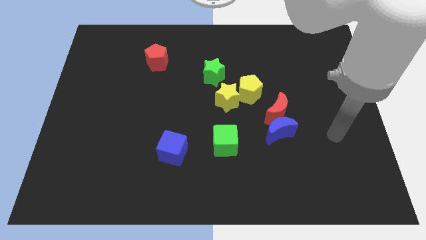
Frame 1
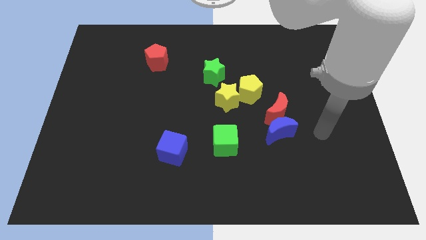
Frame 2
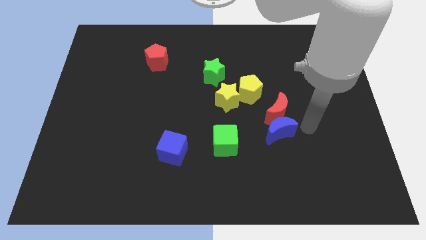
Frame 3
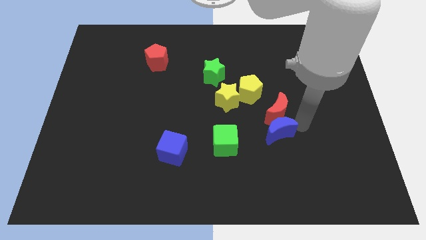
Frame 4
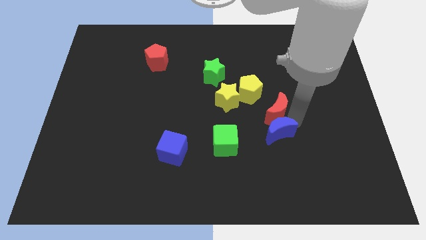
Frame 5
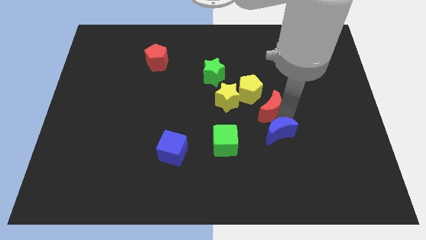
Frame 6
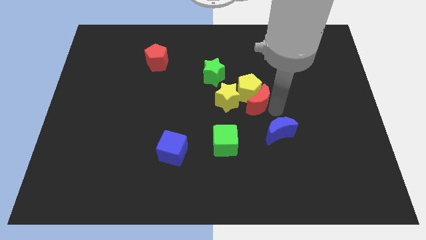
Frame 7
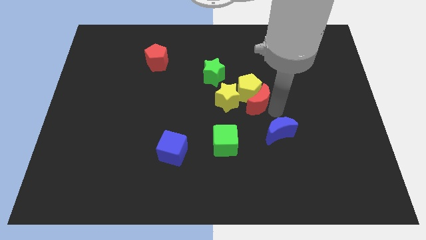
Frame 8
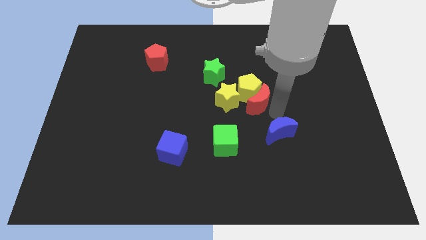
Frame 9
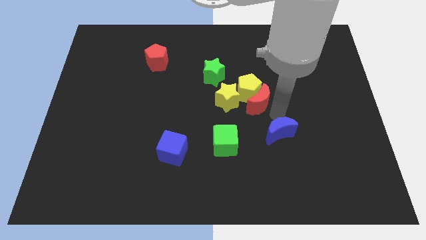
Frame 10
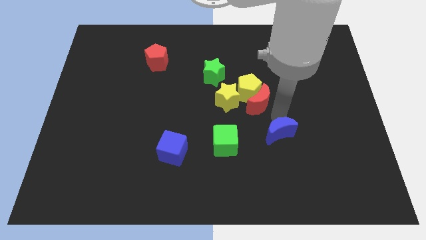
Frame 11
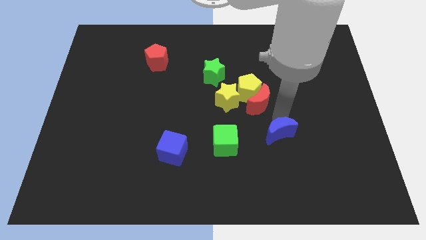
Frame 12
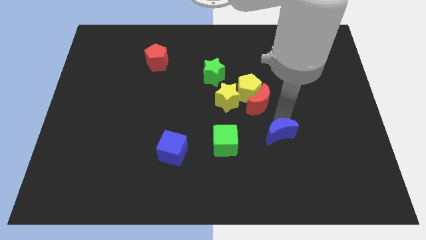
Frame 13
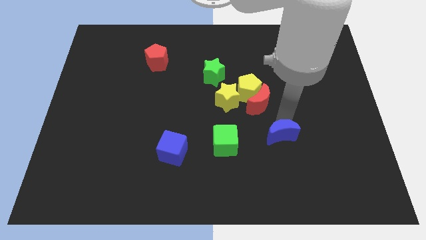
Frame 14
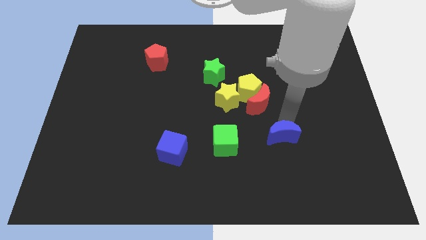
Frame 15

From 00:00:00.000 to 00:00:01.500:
pull the blue moon apart from the red moon

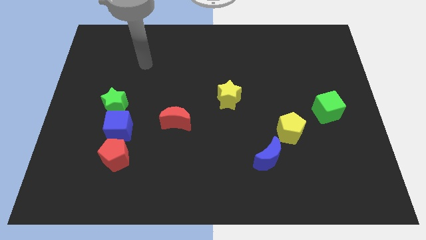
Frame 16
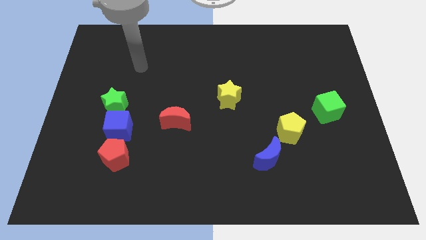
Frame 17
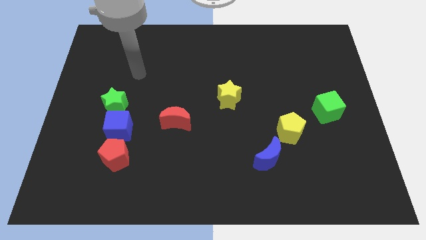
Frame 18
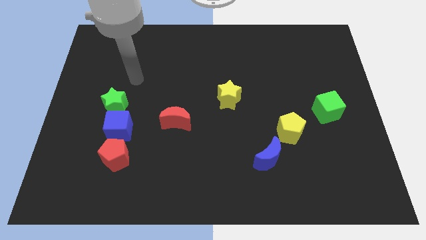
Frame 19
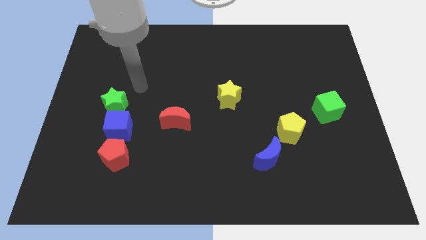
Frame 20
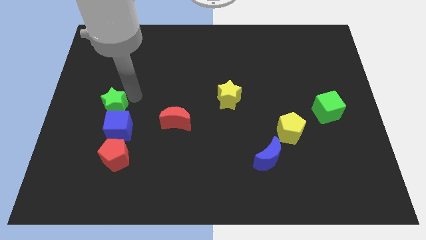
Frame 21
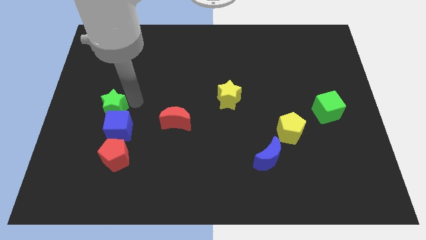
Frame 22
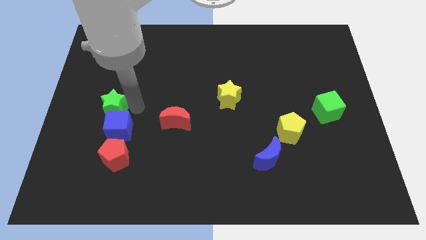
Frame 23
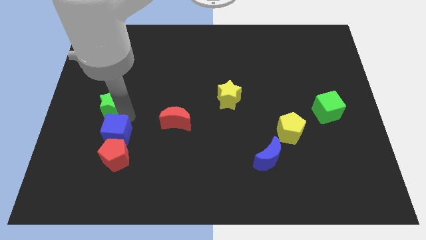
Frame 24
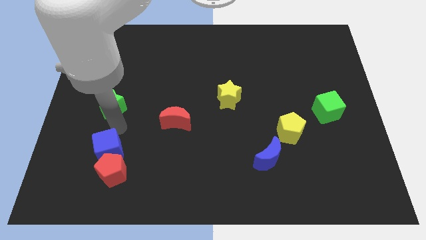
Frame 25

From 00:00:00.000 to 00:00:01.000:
separate the green star from the blue cube

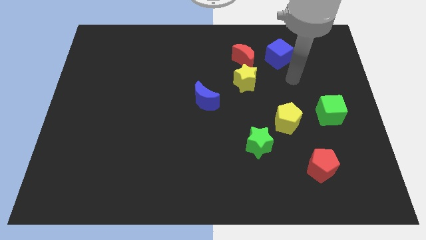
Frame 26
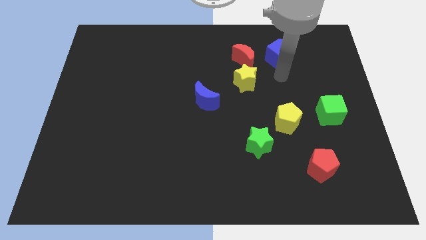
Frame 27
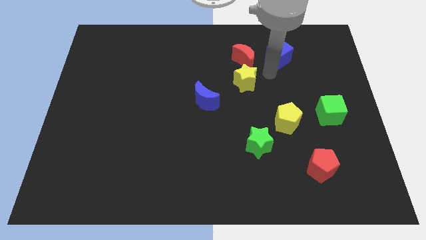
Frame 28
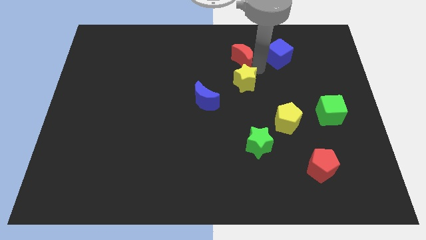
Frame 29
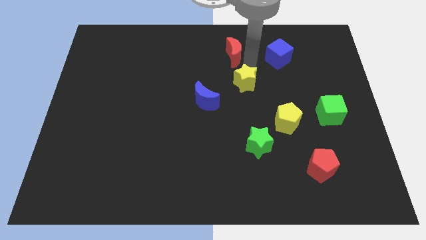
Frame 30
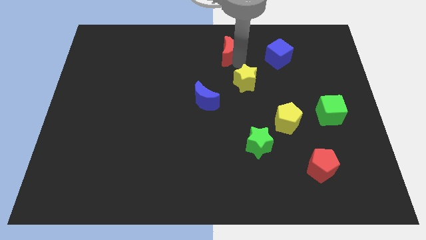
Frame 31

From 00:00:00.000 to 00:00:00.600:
move the yellow star away from the red moon

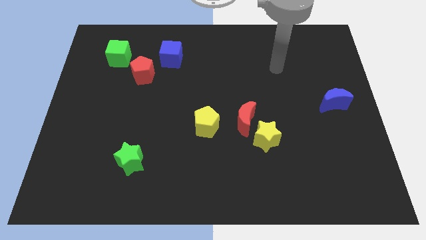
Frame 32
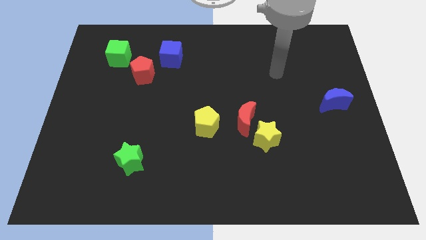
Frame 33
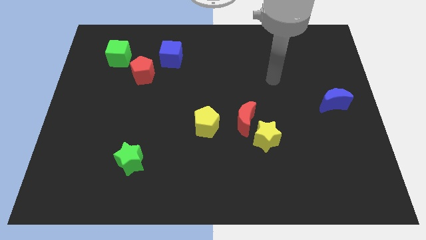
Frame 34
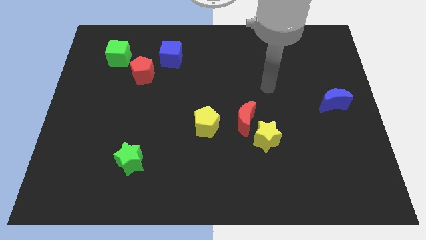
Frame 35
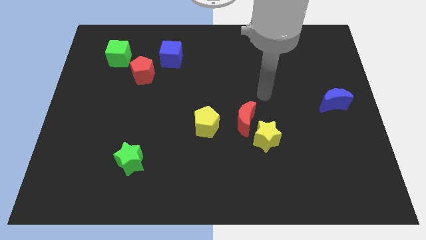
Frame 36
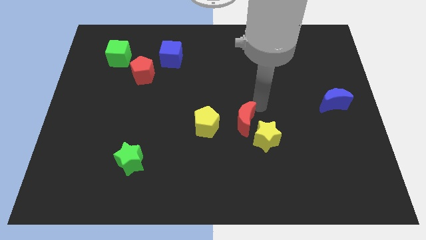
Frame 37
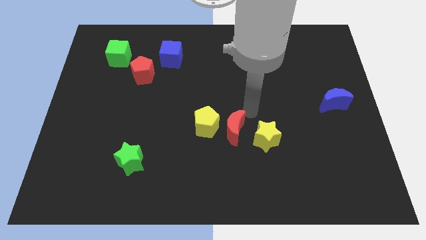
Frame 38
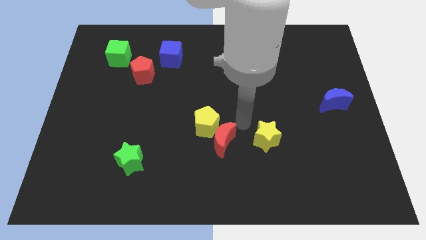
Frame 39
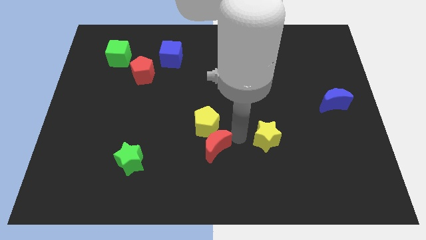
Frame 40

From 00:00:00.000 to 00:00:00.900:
separate the yellow star from the red moon

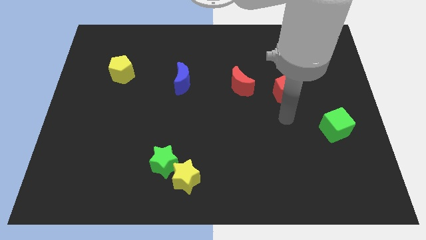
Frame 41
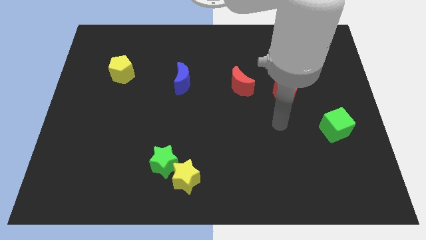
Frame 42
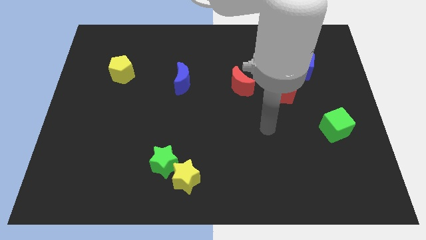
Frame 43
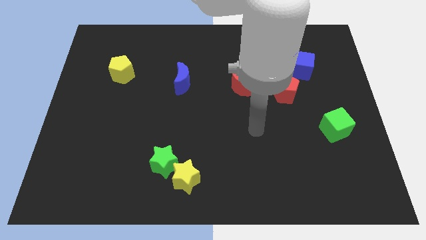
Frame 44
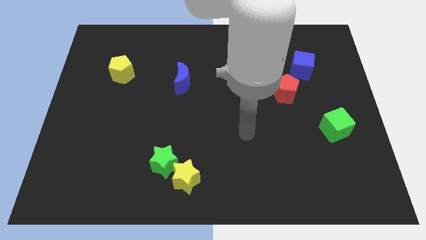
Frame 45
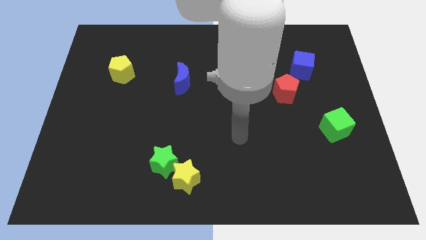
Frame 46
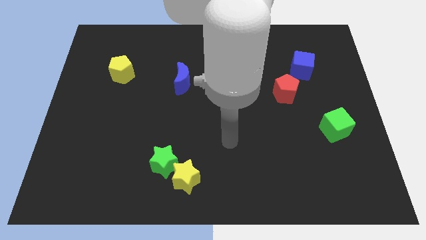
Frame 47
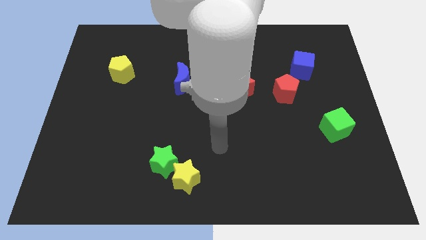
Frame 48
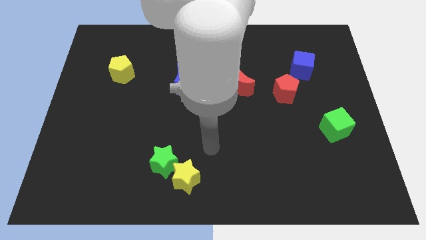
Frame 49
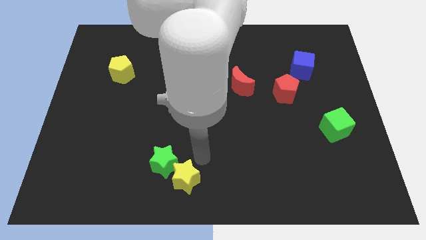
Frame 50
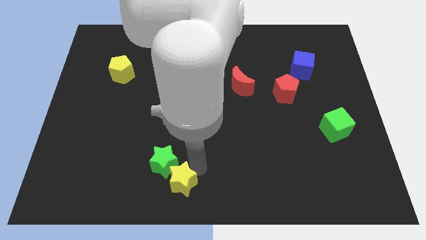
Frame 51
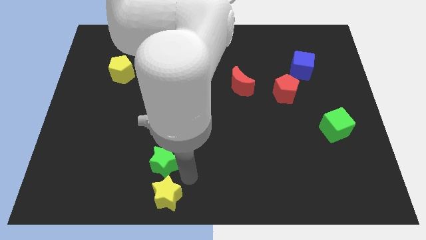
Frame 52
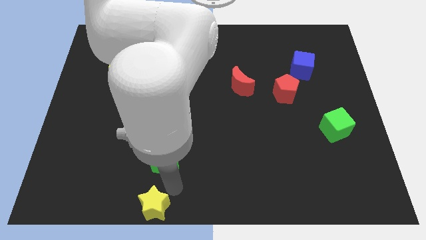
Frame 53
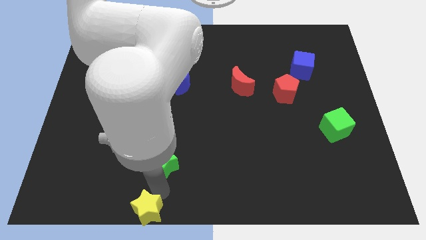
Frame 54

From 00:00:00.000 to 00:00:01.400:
pull the green star apart from the yellow star

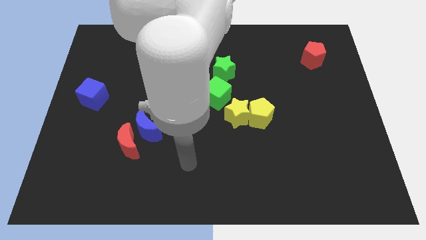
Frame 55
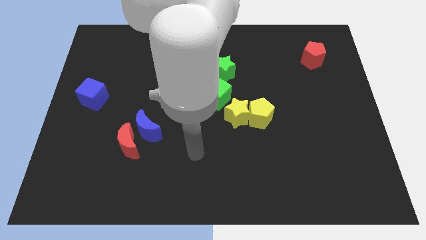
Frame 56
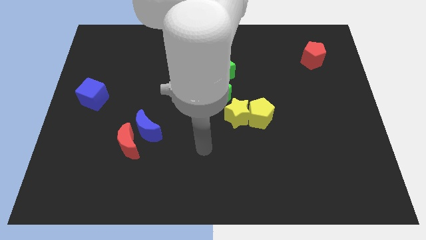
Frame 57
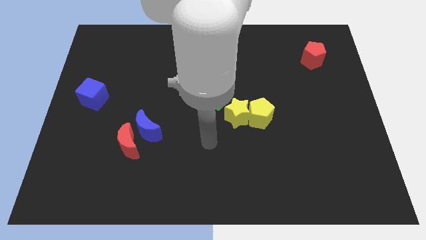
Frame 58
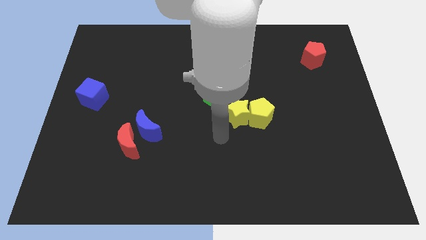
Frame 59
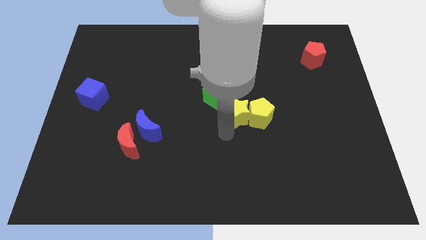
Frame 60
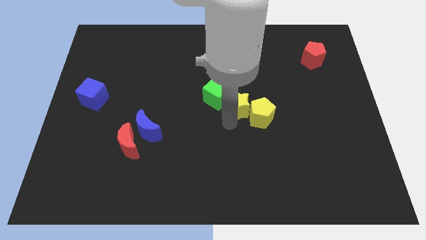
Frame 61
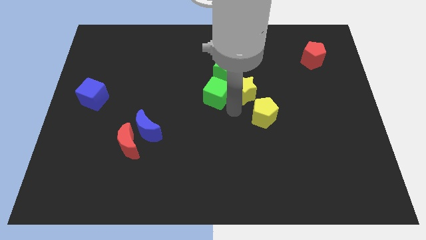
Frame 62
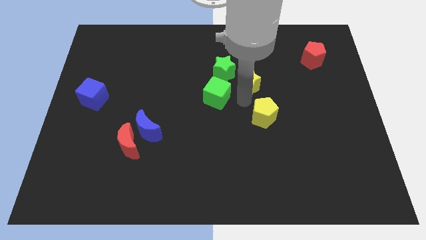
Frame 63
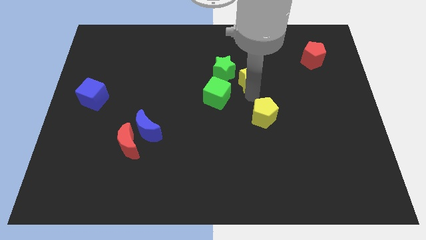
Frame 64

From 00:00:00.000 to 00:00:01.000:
separate the yellow pentagon from the yellow star

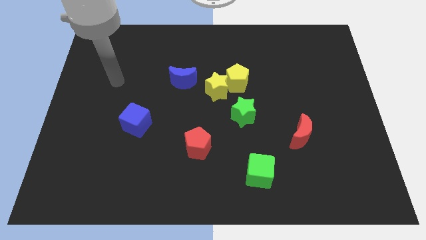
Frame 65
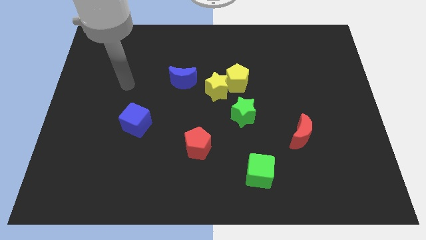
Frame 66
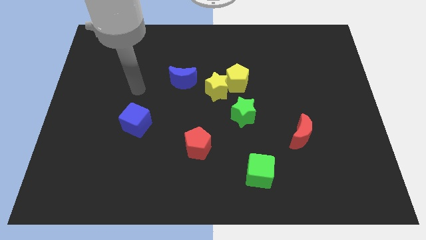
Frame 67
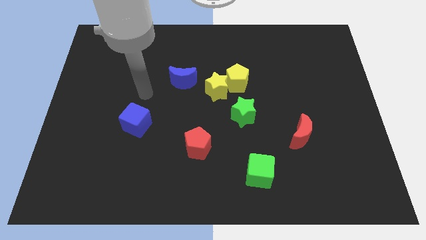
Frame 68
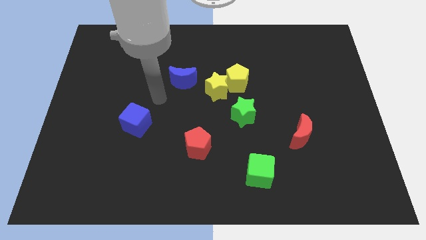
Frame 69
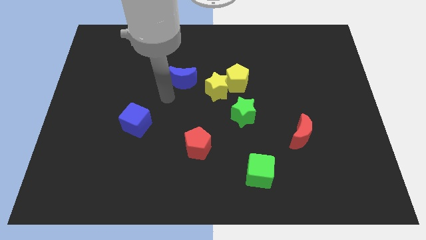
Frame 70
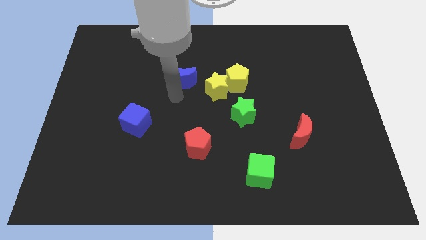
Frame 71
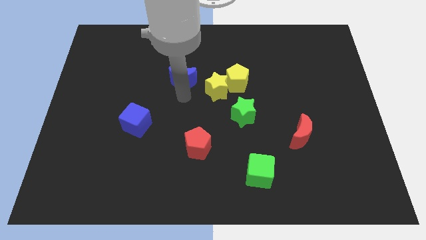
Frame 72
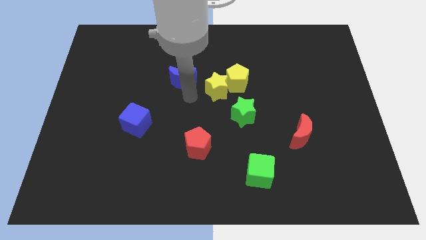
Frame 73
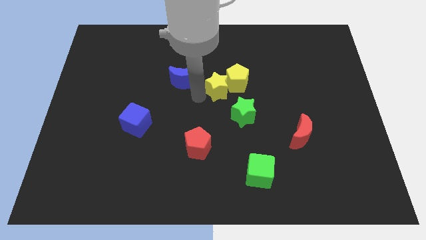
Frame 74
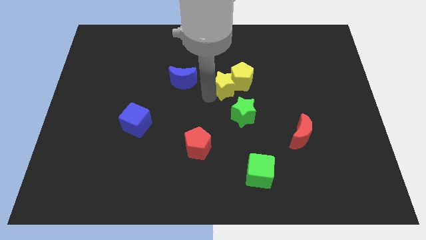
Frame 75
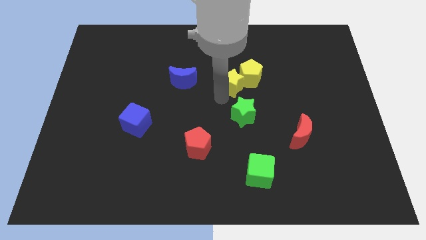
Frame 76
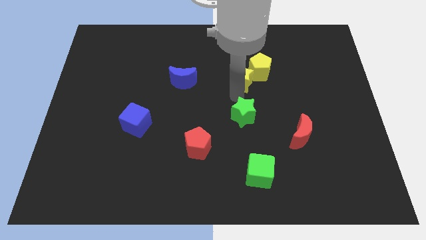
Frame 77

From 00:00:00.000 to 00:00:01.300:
separate the yellow pentagon from the yellow star and green star

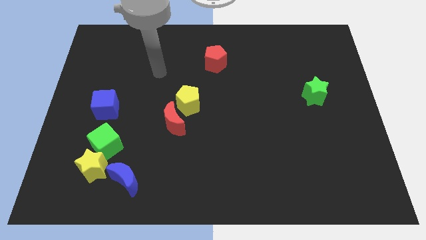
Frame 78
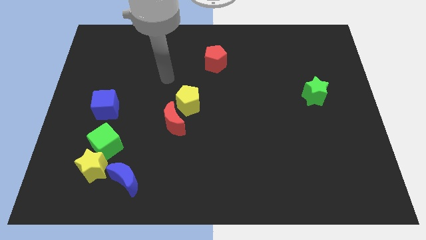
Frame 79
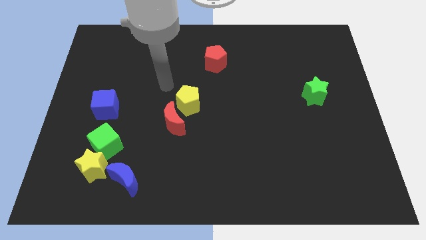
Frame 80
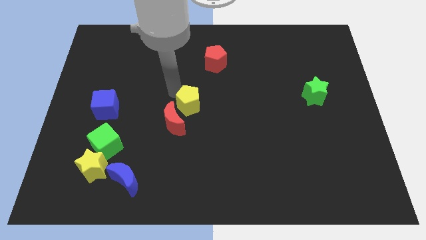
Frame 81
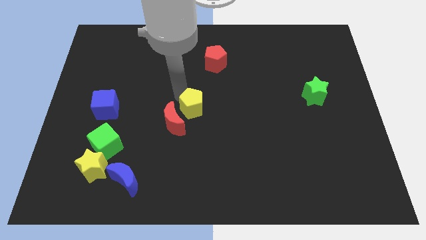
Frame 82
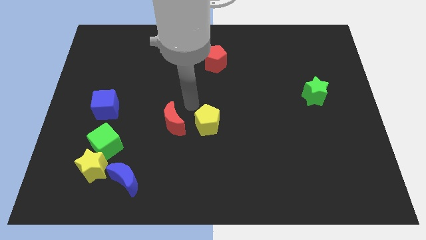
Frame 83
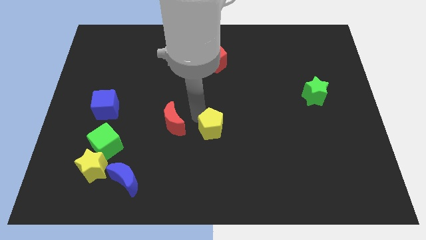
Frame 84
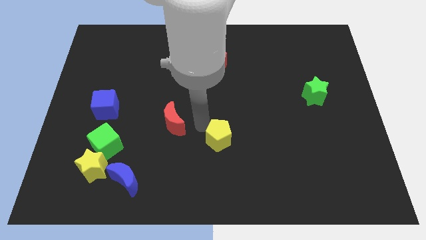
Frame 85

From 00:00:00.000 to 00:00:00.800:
separate the red moon from the yellow pentagon

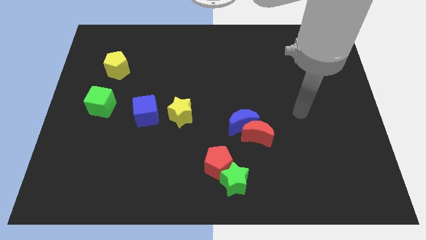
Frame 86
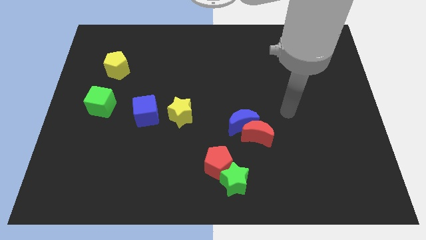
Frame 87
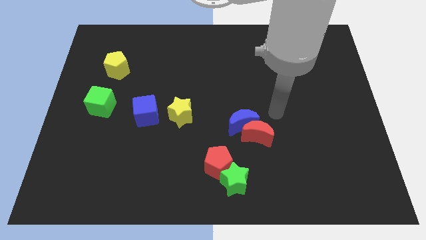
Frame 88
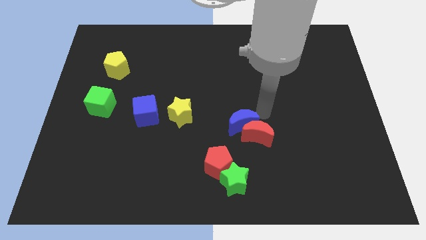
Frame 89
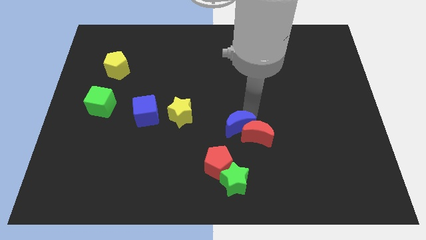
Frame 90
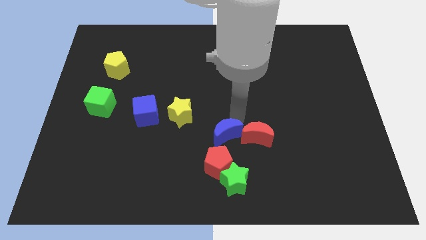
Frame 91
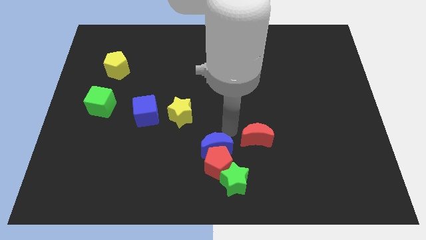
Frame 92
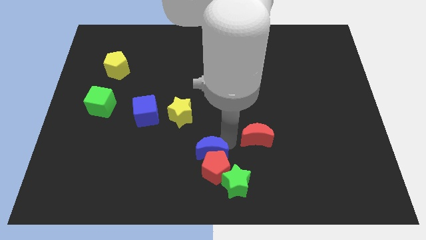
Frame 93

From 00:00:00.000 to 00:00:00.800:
separate the red moon from the blue moon
